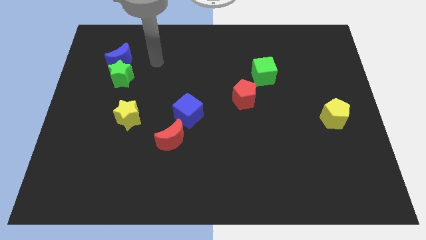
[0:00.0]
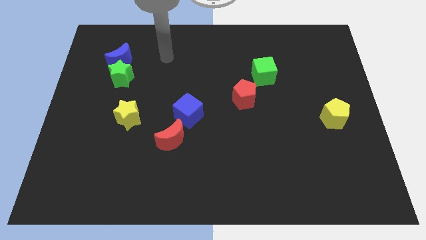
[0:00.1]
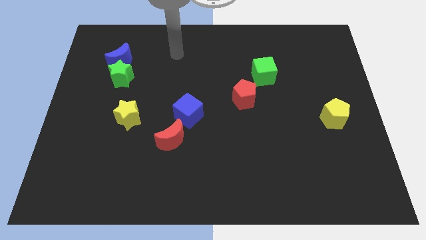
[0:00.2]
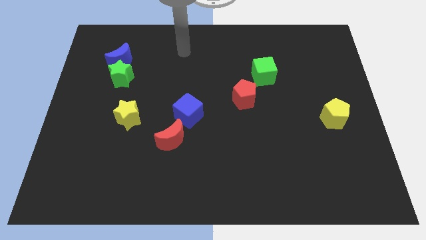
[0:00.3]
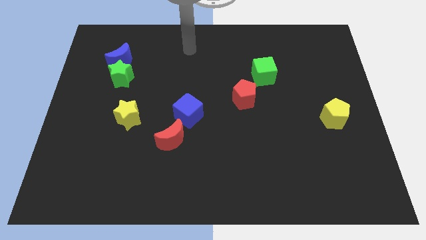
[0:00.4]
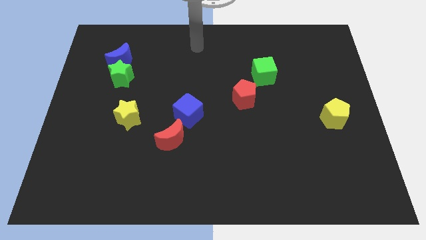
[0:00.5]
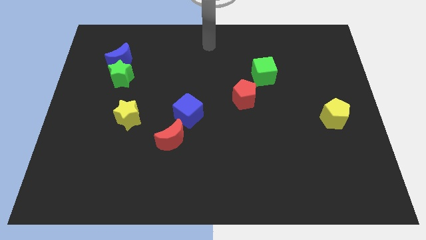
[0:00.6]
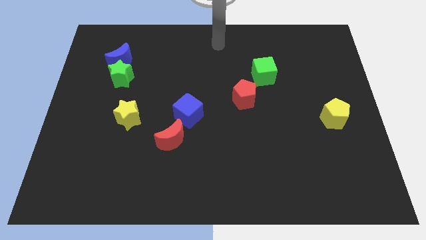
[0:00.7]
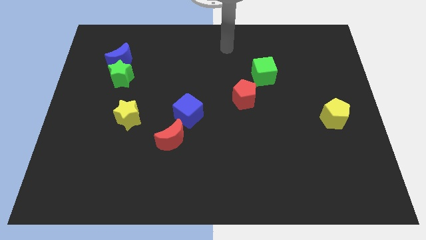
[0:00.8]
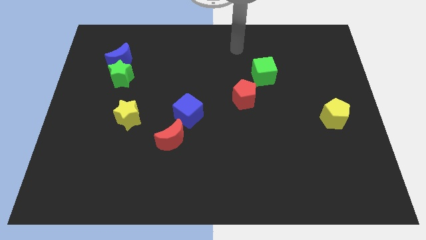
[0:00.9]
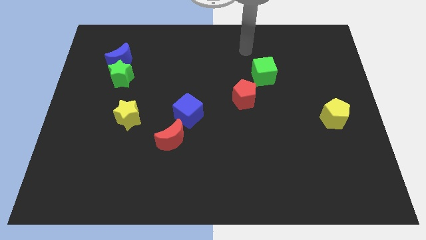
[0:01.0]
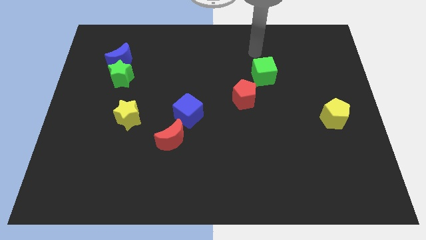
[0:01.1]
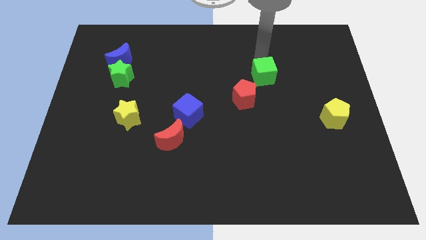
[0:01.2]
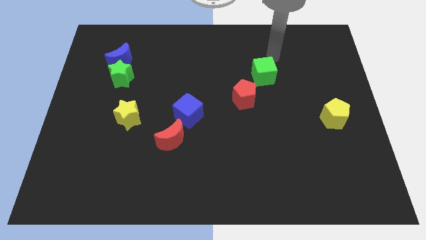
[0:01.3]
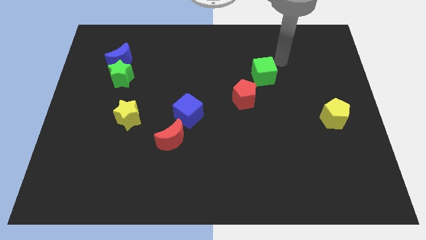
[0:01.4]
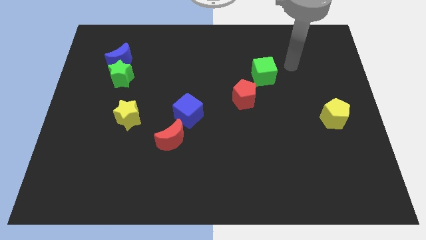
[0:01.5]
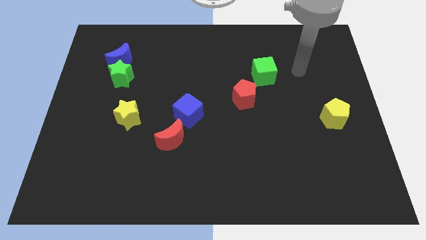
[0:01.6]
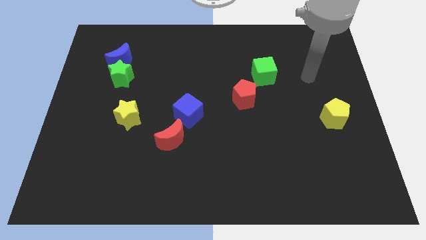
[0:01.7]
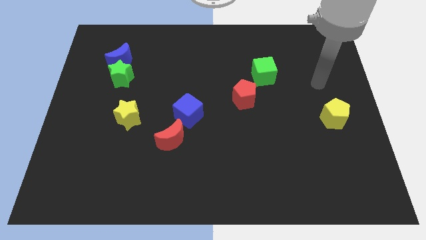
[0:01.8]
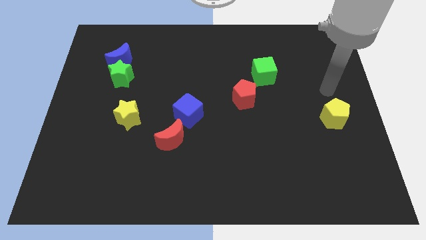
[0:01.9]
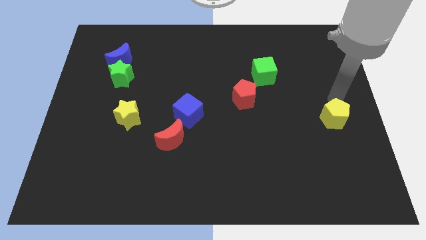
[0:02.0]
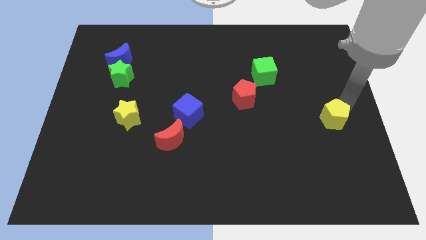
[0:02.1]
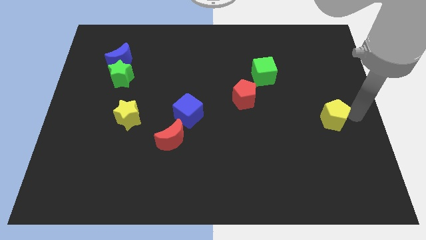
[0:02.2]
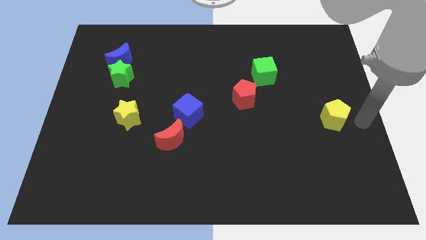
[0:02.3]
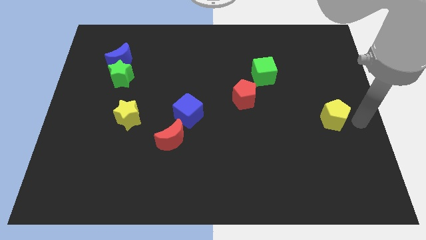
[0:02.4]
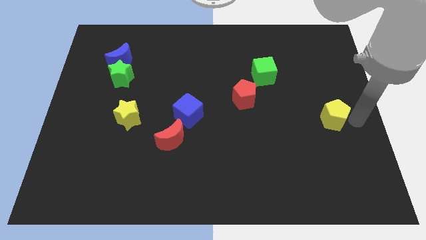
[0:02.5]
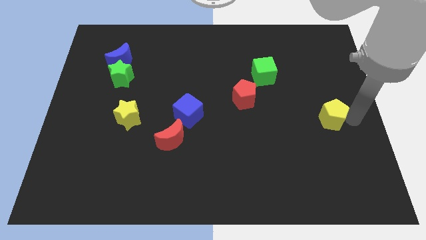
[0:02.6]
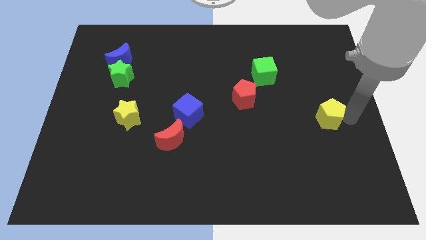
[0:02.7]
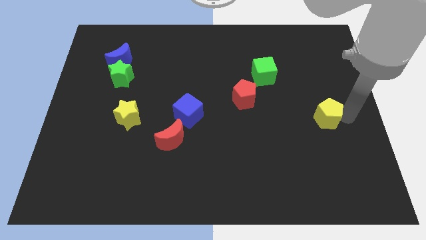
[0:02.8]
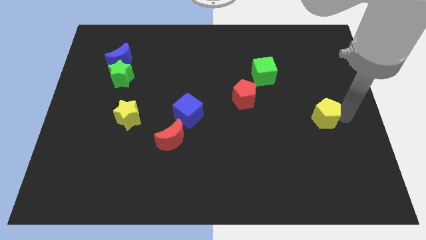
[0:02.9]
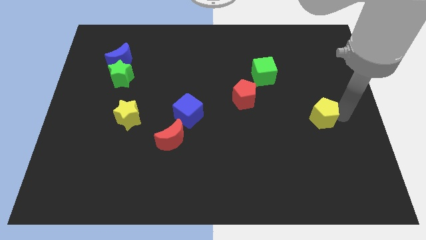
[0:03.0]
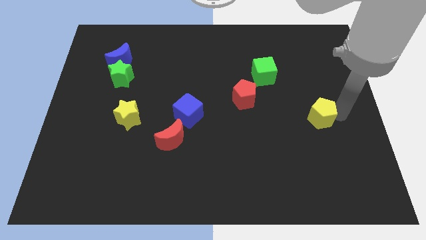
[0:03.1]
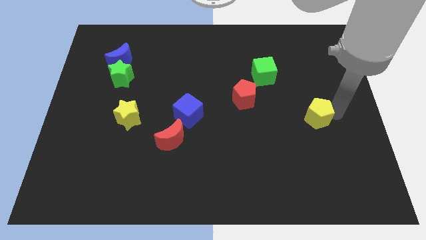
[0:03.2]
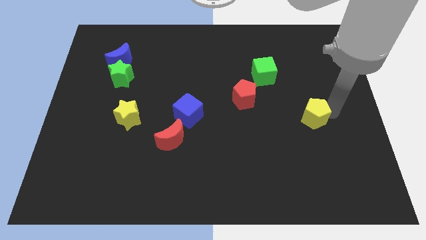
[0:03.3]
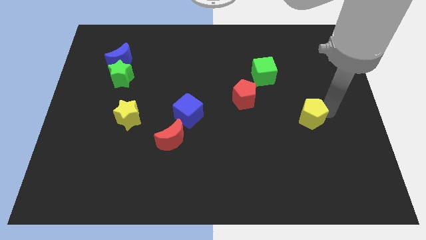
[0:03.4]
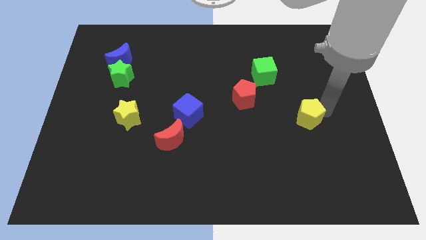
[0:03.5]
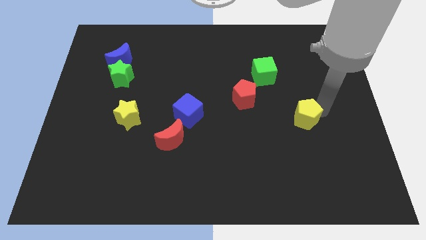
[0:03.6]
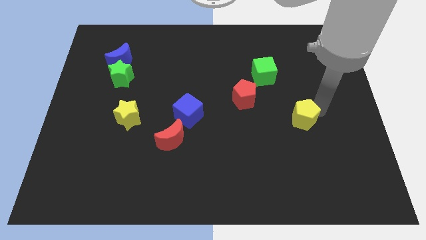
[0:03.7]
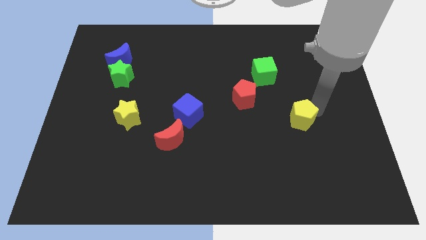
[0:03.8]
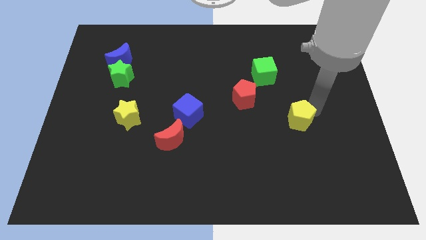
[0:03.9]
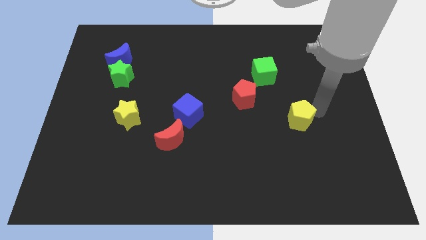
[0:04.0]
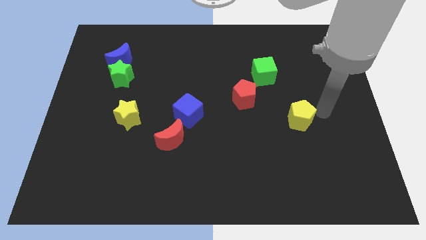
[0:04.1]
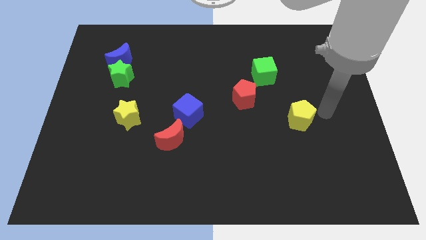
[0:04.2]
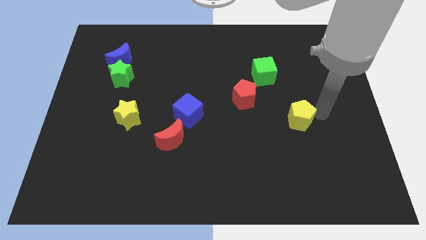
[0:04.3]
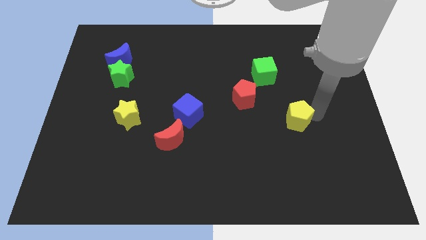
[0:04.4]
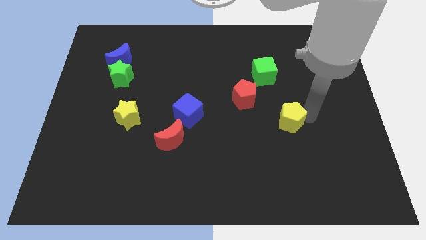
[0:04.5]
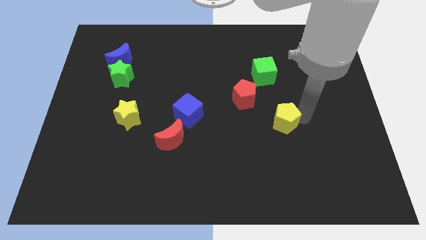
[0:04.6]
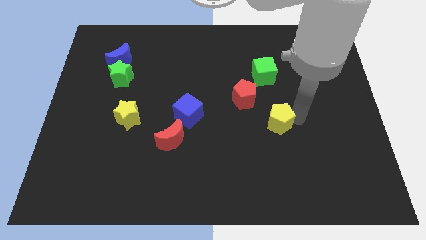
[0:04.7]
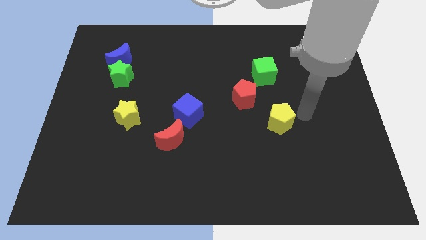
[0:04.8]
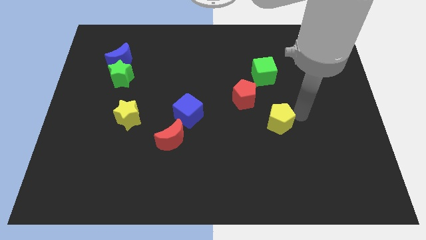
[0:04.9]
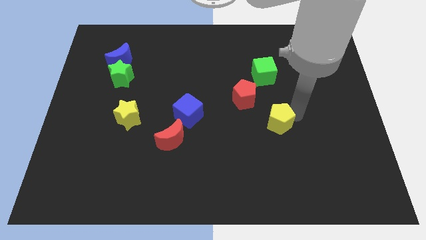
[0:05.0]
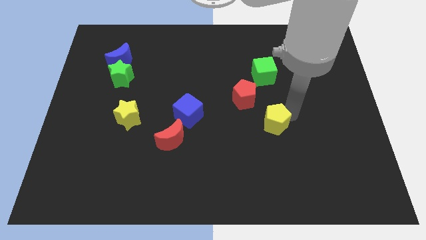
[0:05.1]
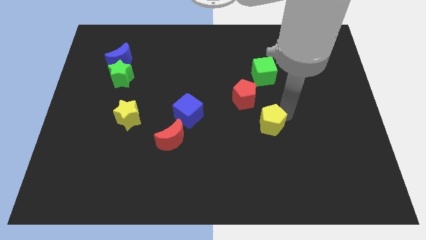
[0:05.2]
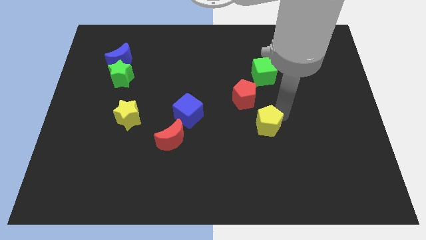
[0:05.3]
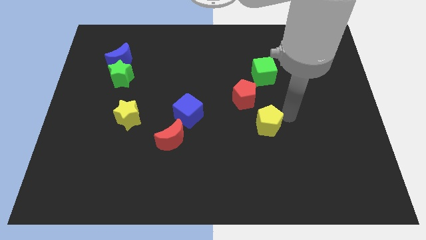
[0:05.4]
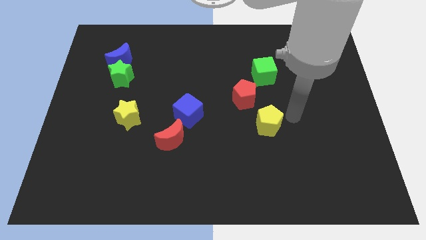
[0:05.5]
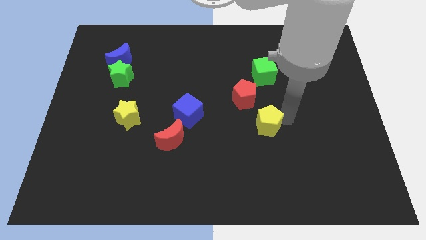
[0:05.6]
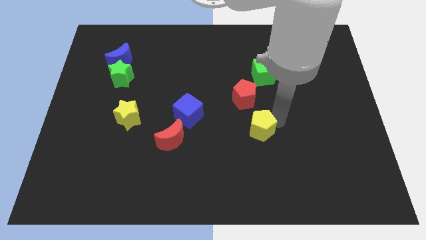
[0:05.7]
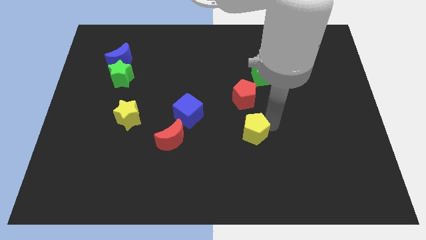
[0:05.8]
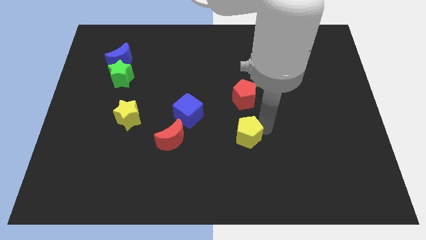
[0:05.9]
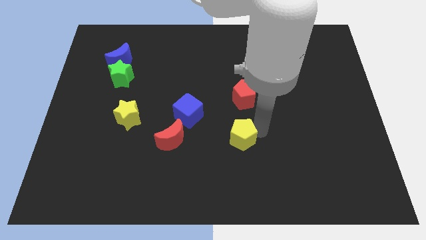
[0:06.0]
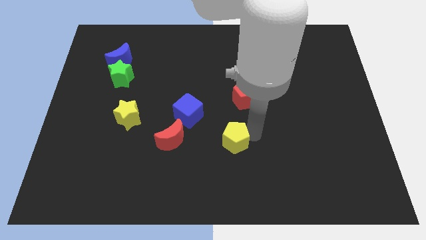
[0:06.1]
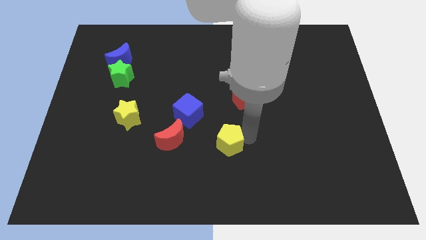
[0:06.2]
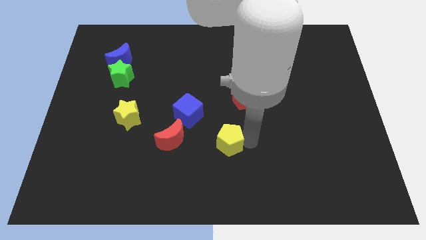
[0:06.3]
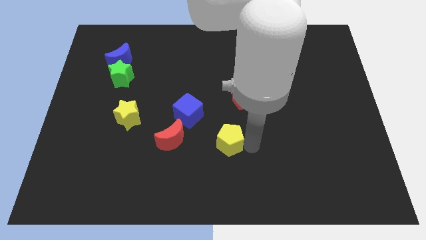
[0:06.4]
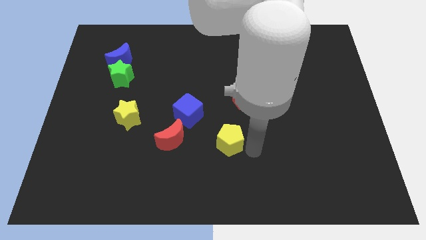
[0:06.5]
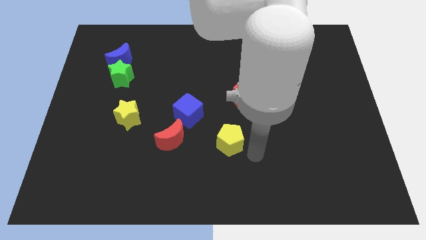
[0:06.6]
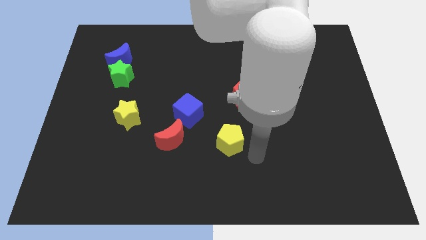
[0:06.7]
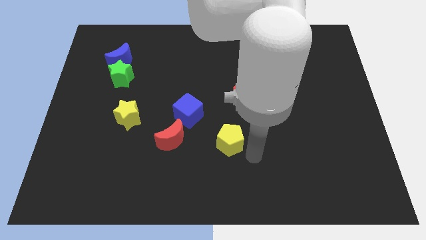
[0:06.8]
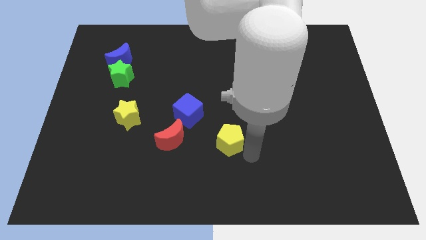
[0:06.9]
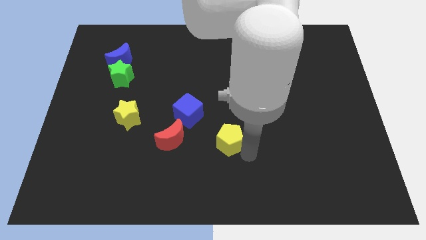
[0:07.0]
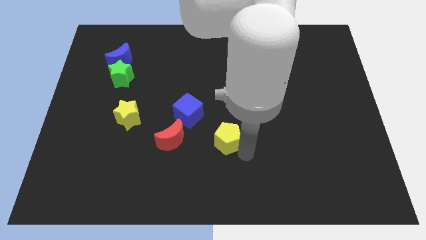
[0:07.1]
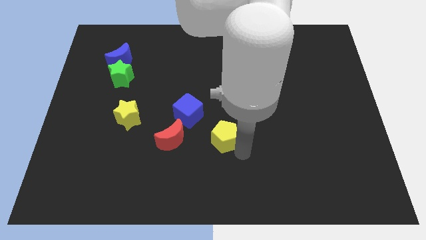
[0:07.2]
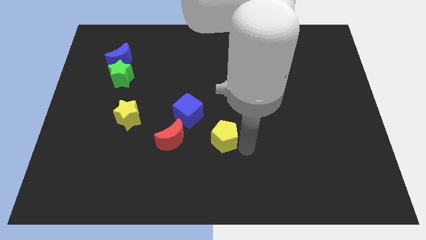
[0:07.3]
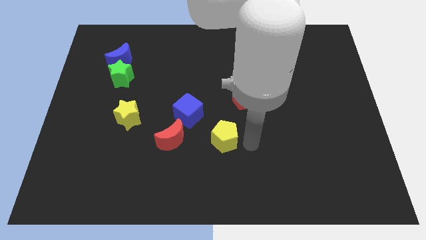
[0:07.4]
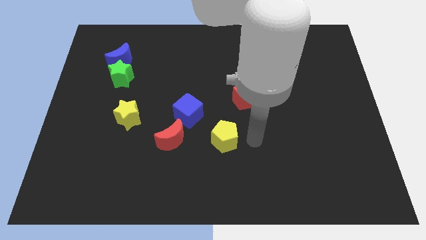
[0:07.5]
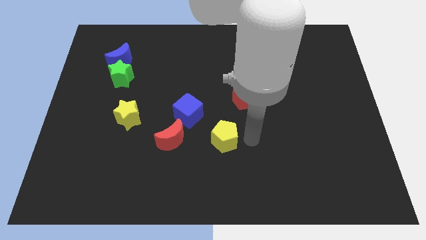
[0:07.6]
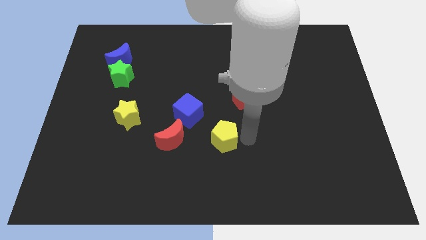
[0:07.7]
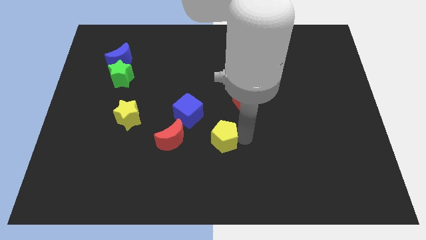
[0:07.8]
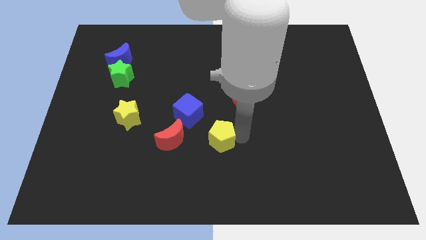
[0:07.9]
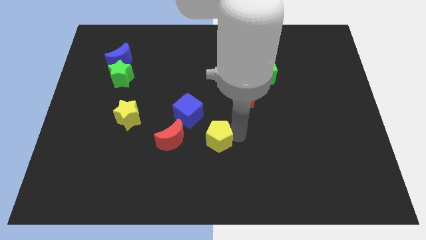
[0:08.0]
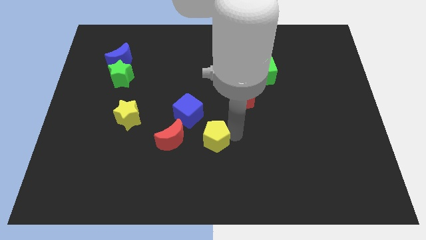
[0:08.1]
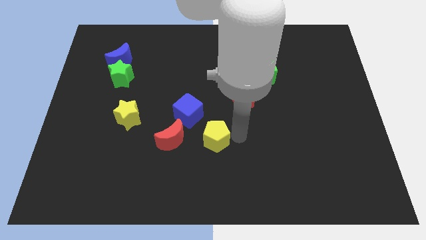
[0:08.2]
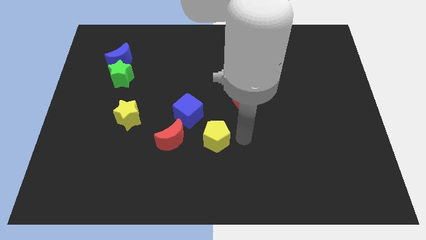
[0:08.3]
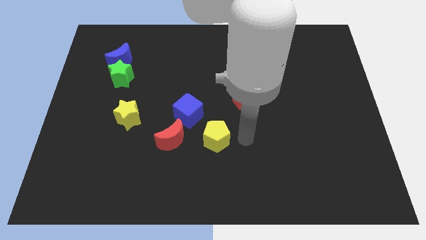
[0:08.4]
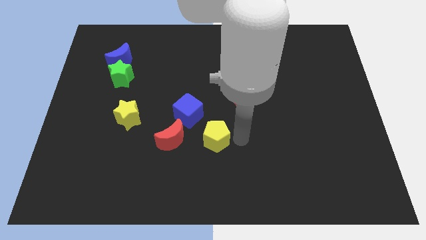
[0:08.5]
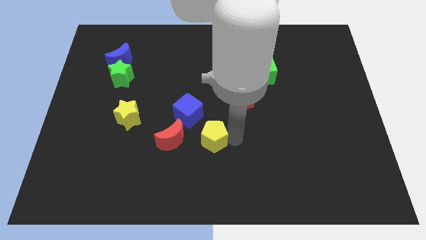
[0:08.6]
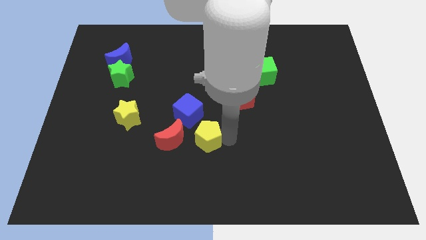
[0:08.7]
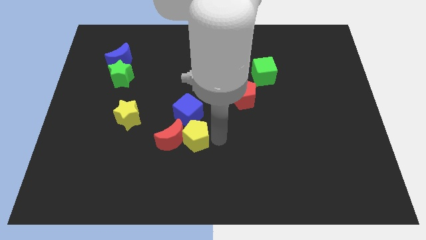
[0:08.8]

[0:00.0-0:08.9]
put the yellow pentagon to the red moon
